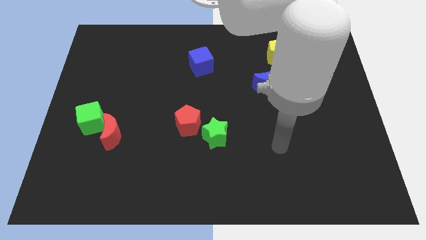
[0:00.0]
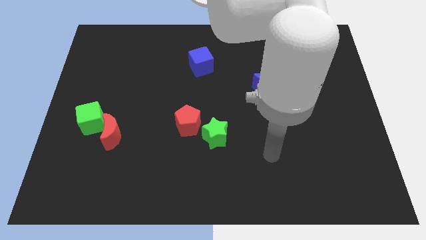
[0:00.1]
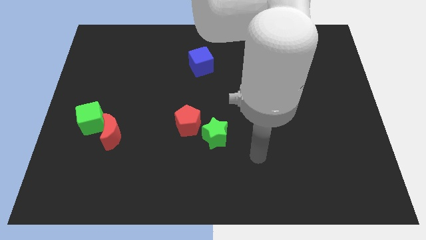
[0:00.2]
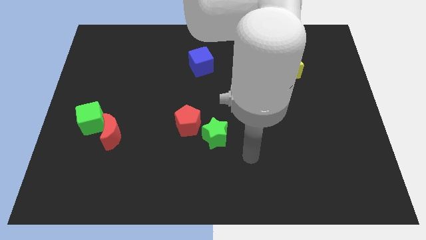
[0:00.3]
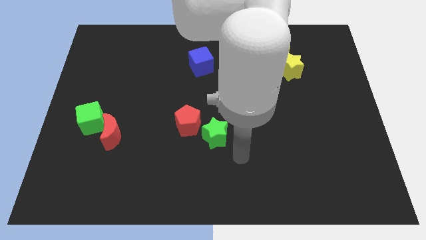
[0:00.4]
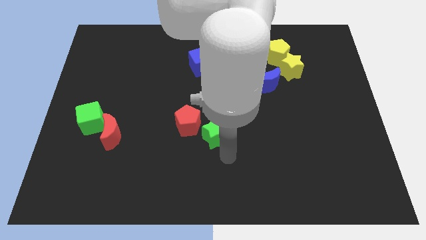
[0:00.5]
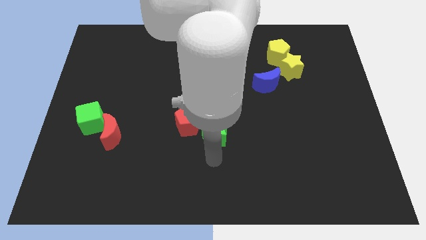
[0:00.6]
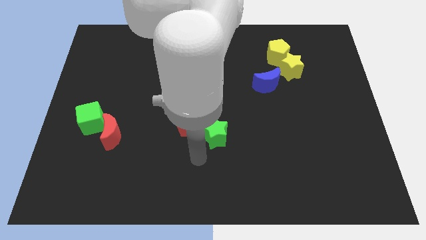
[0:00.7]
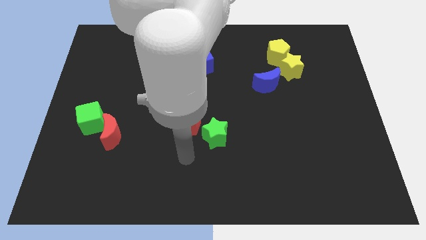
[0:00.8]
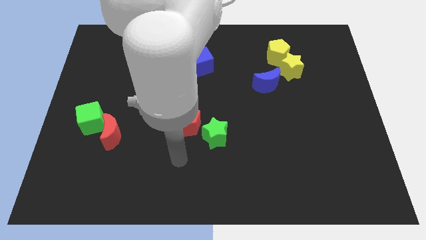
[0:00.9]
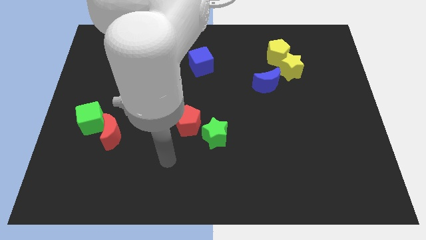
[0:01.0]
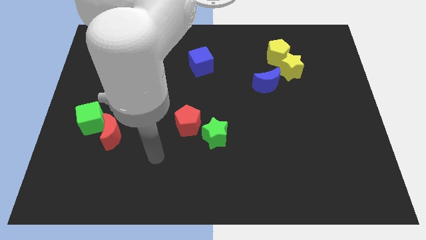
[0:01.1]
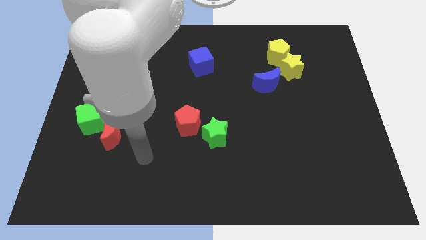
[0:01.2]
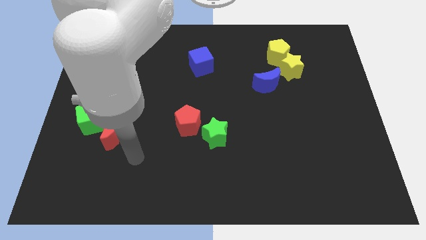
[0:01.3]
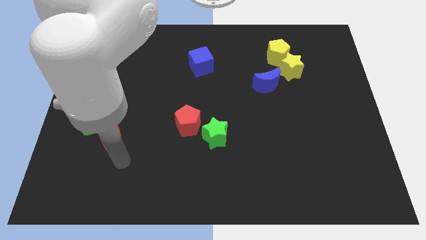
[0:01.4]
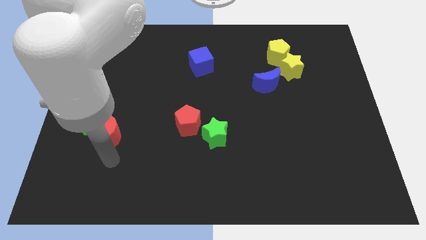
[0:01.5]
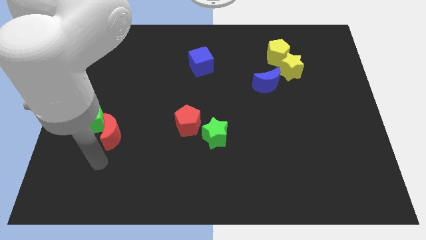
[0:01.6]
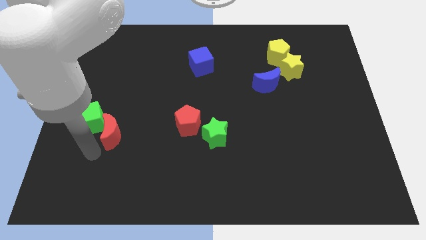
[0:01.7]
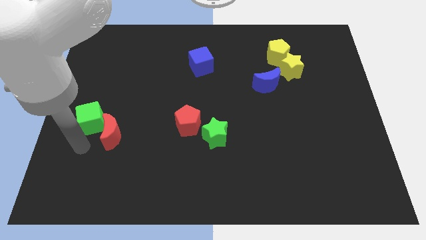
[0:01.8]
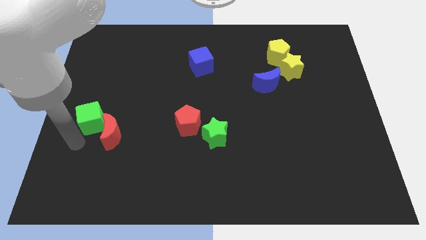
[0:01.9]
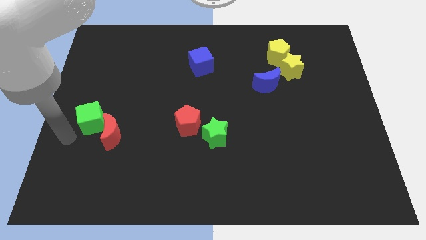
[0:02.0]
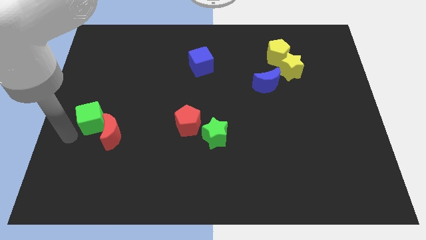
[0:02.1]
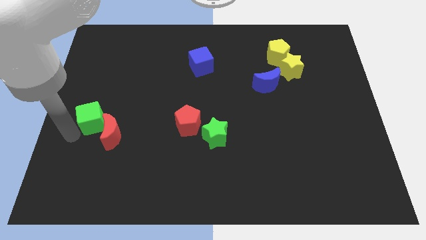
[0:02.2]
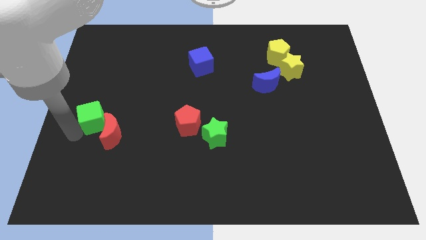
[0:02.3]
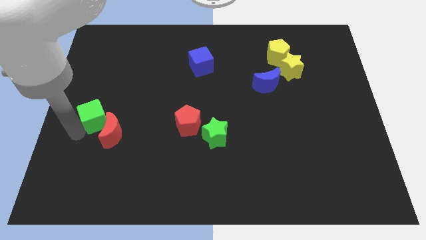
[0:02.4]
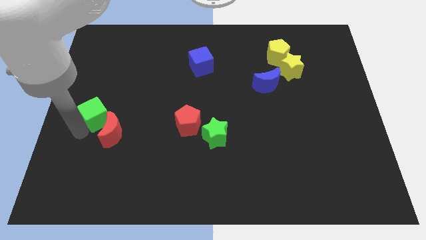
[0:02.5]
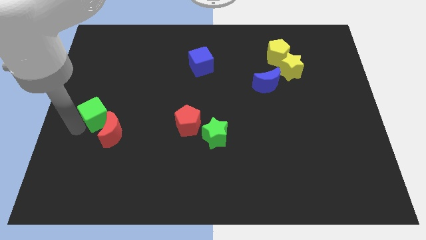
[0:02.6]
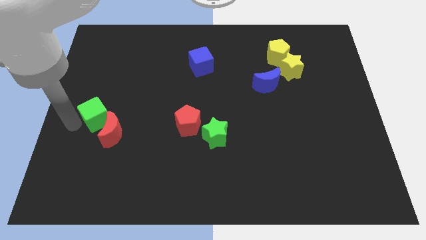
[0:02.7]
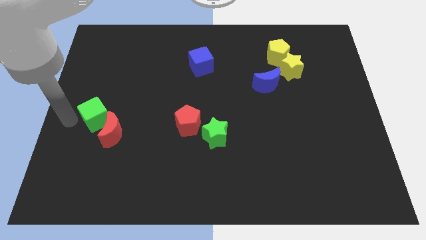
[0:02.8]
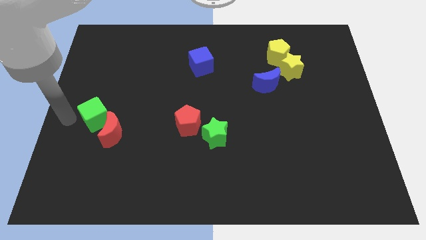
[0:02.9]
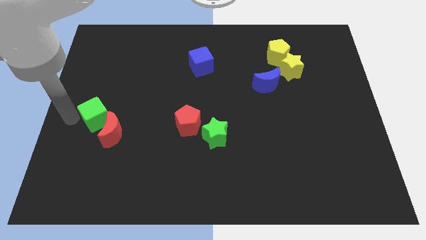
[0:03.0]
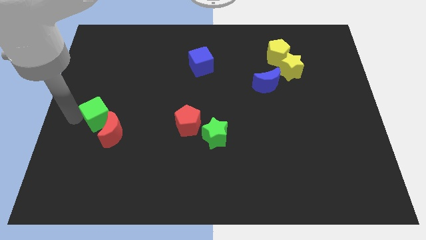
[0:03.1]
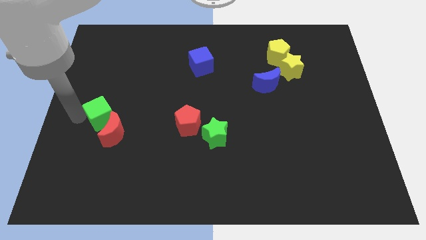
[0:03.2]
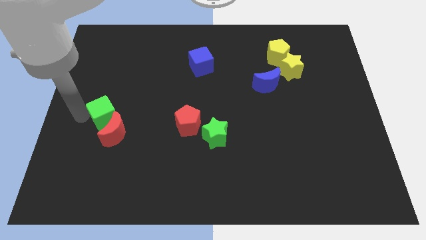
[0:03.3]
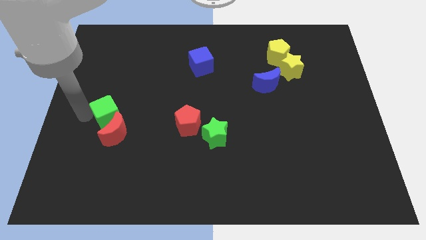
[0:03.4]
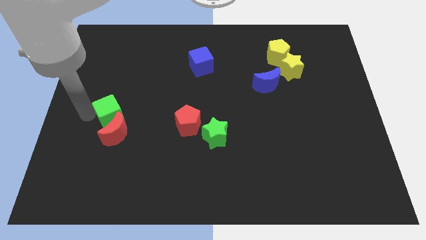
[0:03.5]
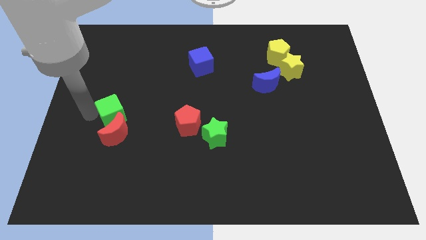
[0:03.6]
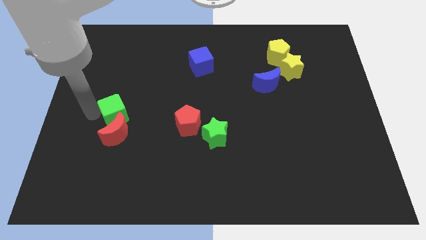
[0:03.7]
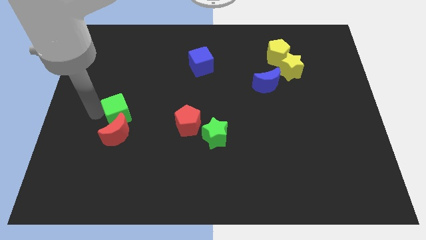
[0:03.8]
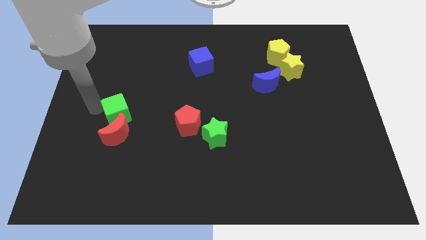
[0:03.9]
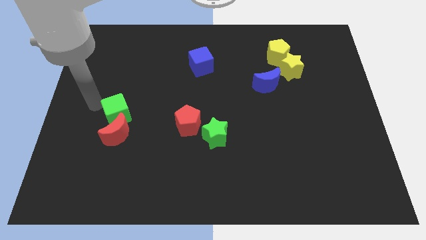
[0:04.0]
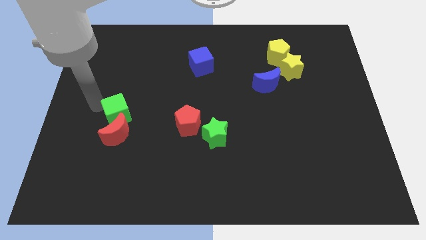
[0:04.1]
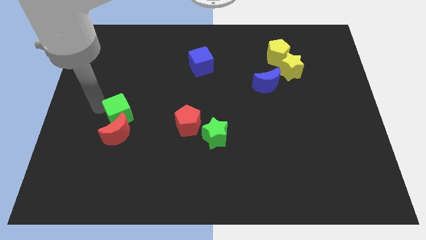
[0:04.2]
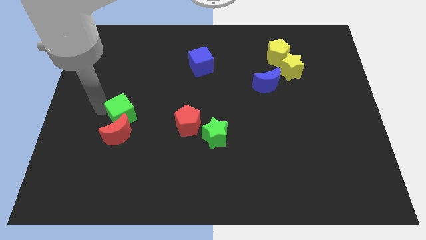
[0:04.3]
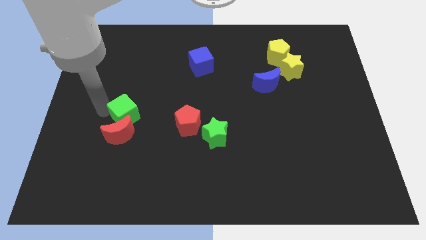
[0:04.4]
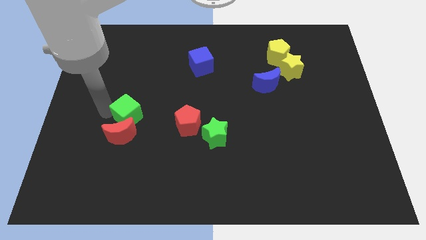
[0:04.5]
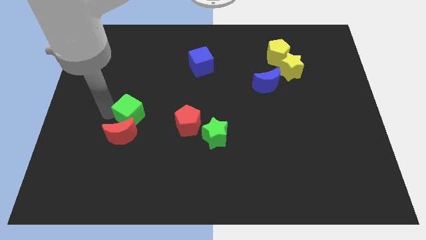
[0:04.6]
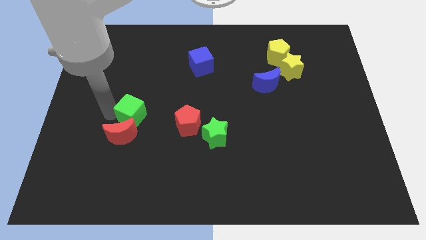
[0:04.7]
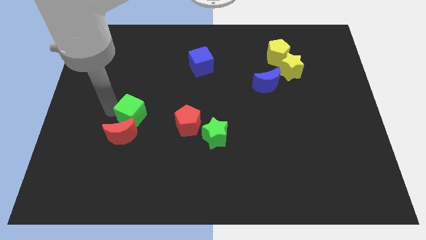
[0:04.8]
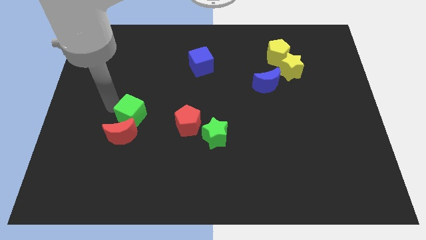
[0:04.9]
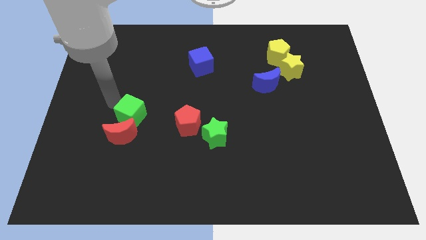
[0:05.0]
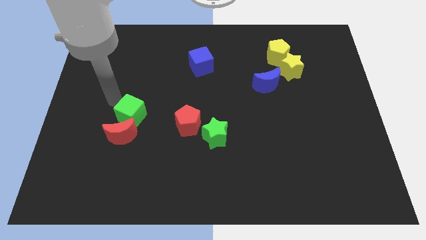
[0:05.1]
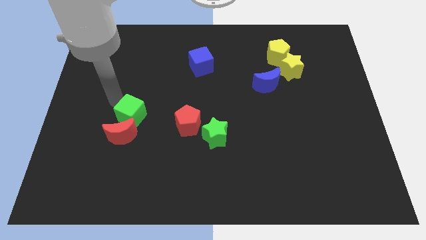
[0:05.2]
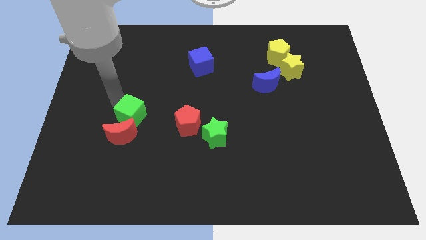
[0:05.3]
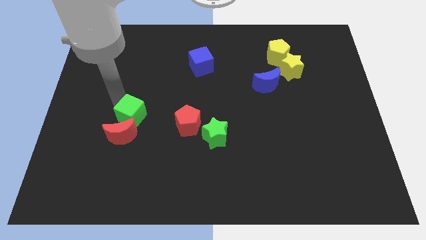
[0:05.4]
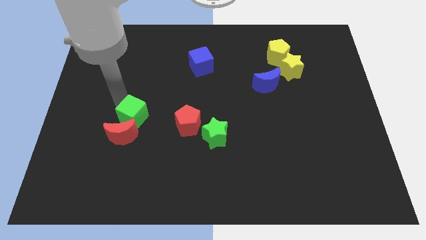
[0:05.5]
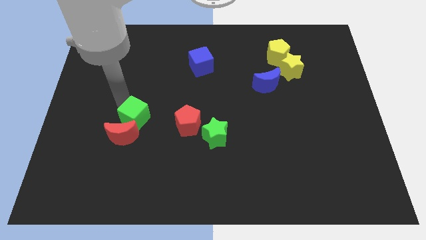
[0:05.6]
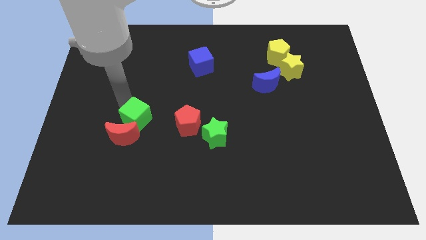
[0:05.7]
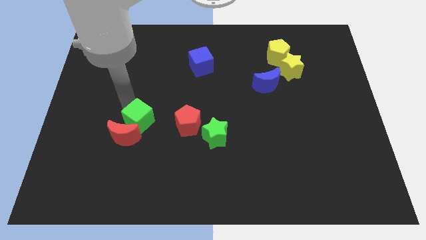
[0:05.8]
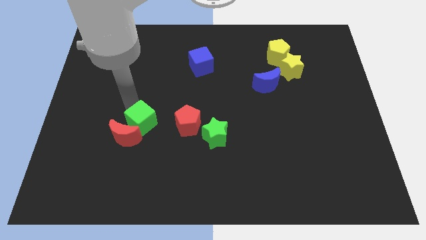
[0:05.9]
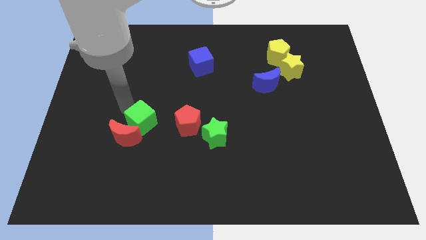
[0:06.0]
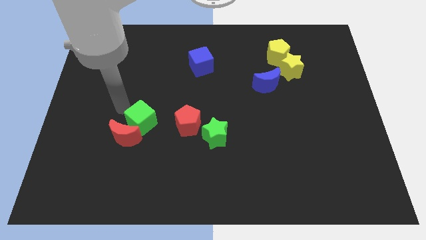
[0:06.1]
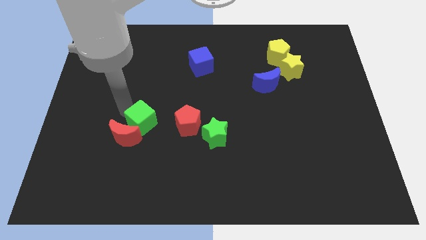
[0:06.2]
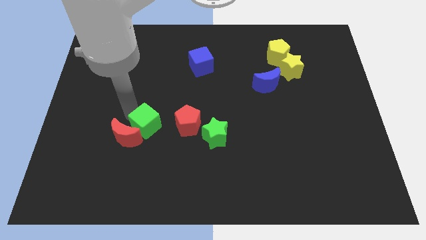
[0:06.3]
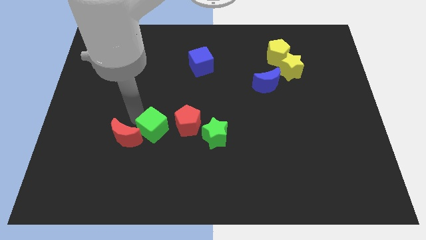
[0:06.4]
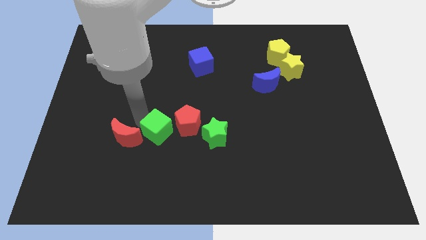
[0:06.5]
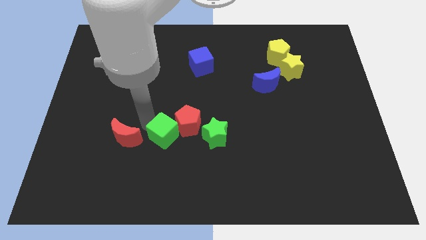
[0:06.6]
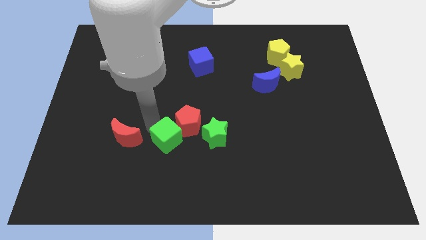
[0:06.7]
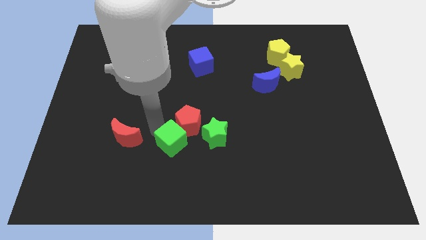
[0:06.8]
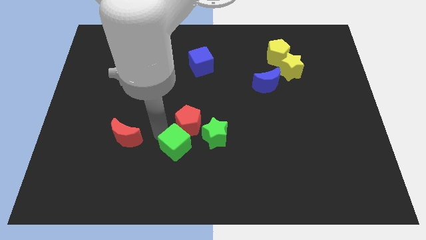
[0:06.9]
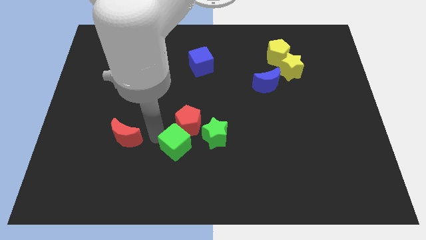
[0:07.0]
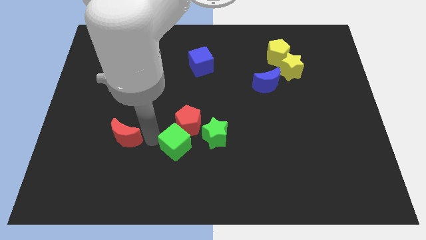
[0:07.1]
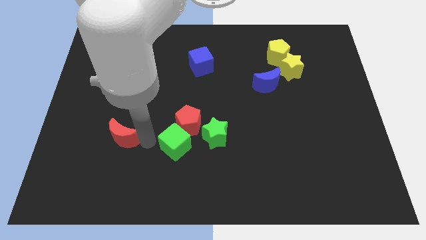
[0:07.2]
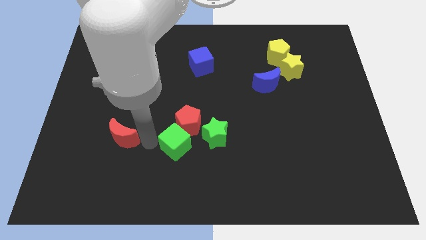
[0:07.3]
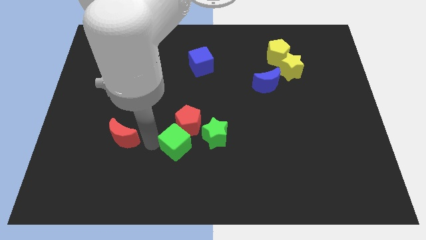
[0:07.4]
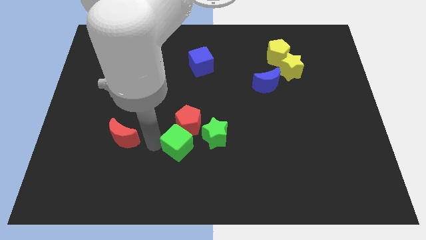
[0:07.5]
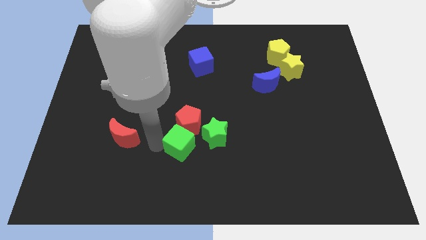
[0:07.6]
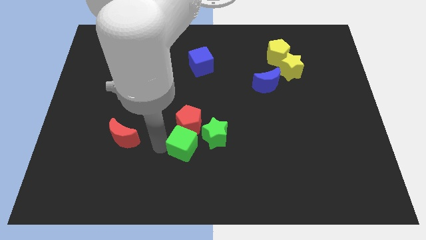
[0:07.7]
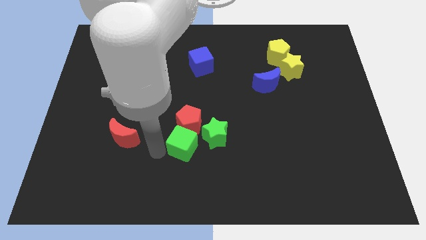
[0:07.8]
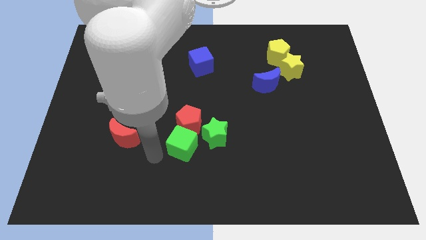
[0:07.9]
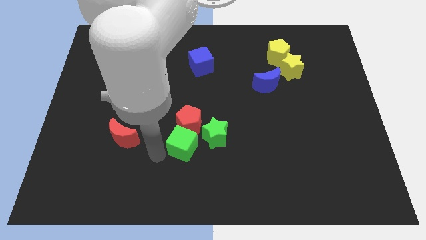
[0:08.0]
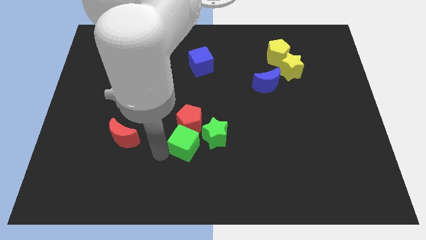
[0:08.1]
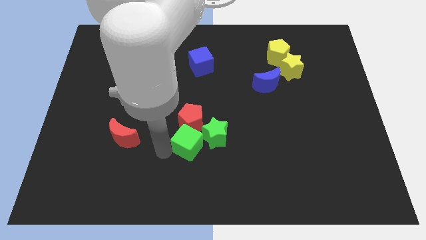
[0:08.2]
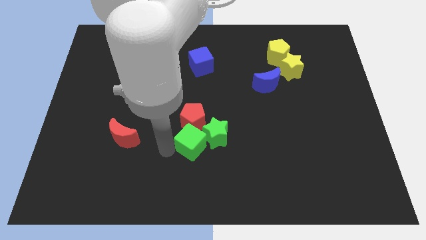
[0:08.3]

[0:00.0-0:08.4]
put the green cube to the green star

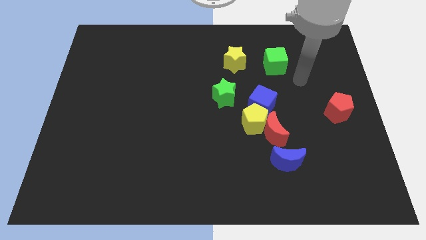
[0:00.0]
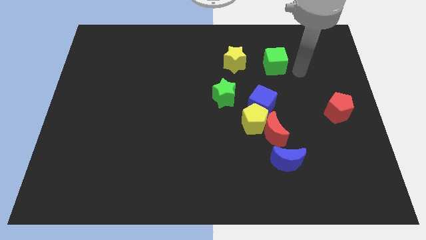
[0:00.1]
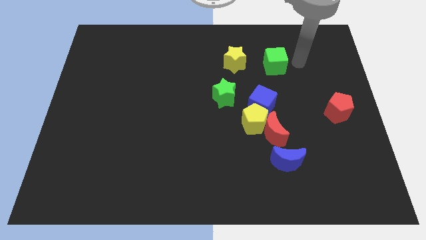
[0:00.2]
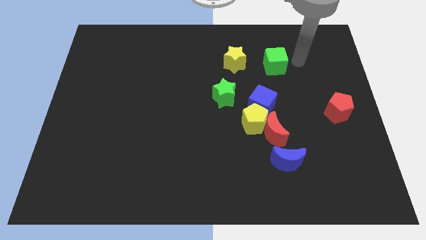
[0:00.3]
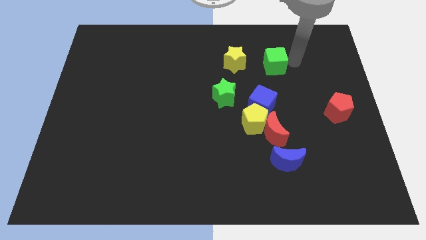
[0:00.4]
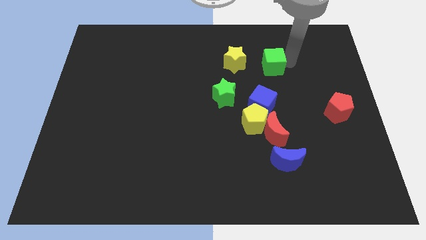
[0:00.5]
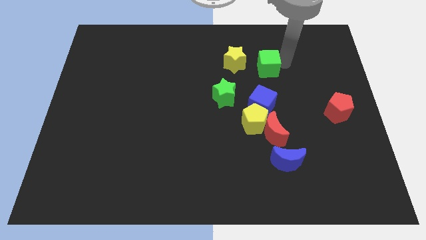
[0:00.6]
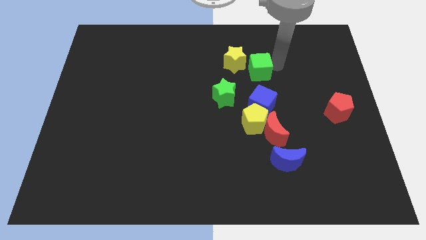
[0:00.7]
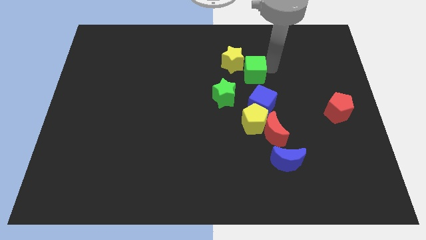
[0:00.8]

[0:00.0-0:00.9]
move the green cube to the yellow star
